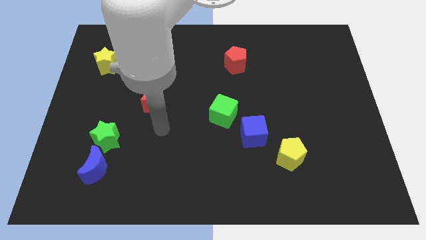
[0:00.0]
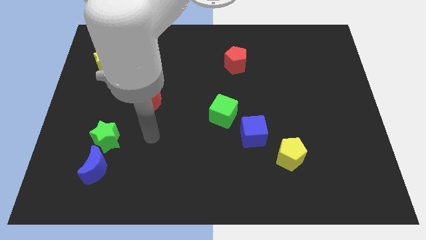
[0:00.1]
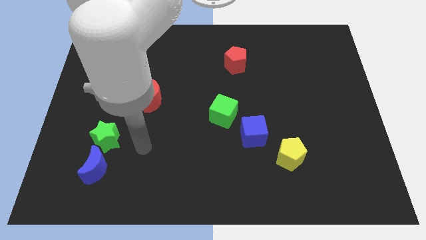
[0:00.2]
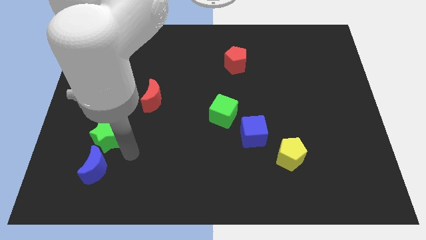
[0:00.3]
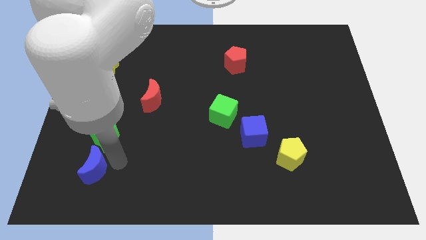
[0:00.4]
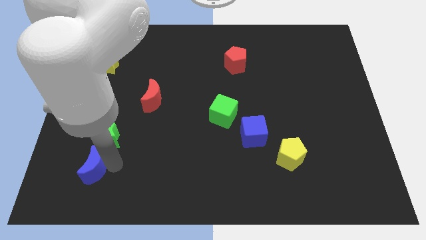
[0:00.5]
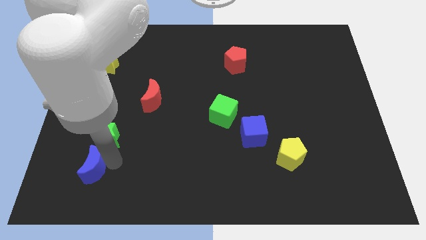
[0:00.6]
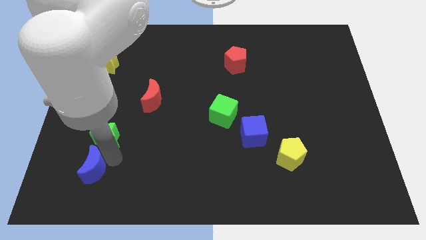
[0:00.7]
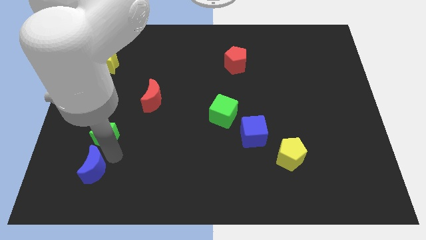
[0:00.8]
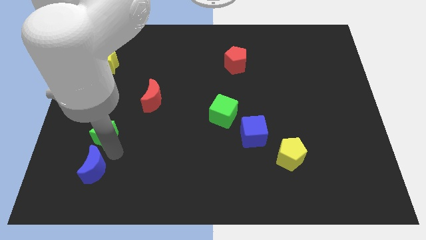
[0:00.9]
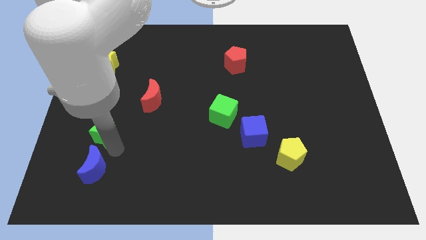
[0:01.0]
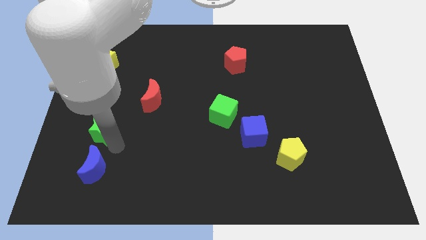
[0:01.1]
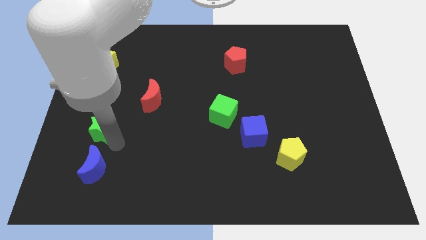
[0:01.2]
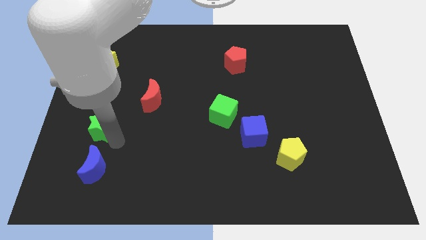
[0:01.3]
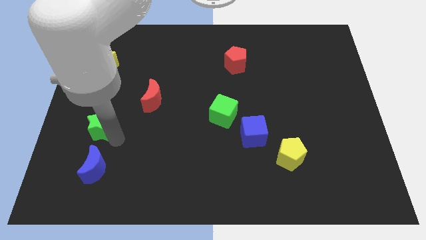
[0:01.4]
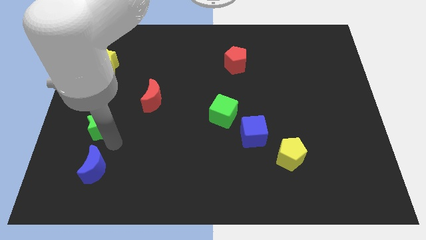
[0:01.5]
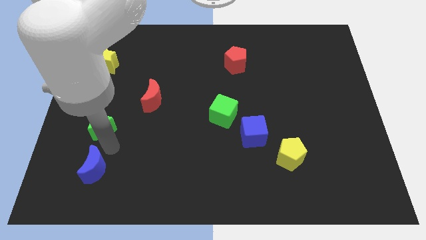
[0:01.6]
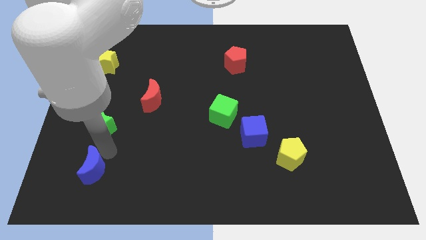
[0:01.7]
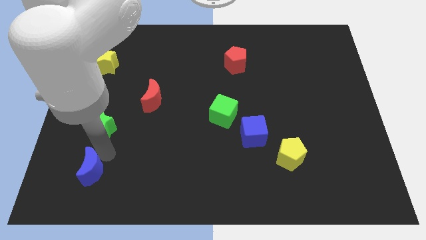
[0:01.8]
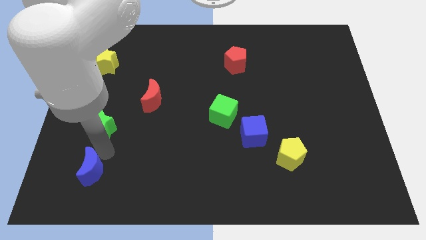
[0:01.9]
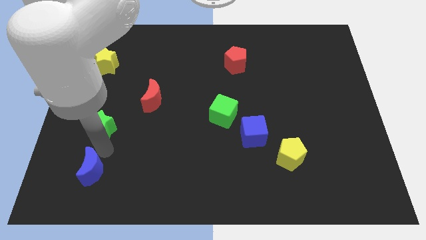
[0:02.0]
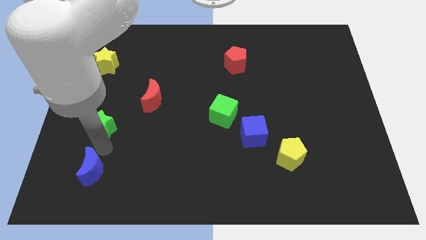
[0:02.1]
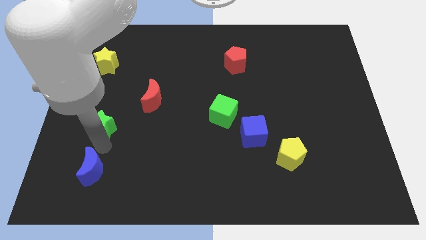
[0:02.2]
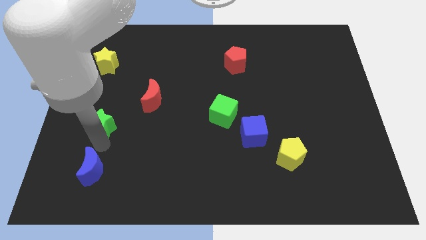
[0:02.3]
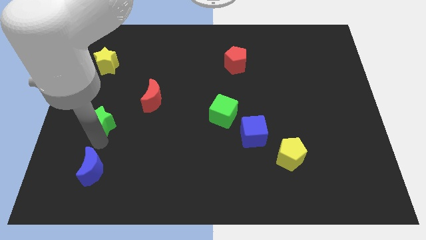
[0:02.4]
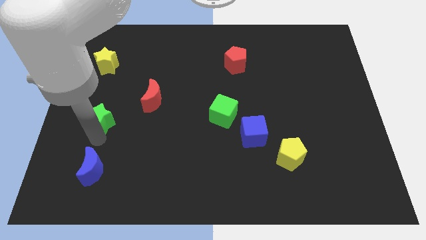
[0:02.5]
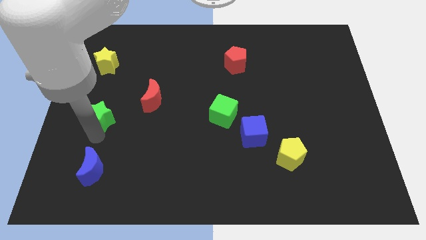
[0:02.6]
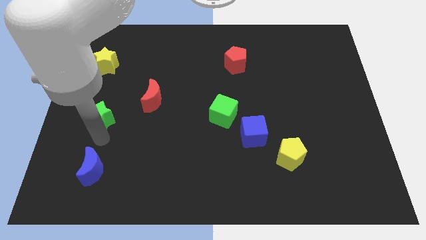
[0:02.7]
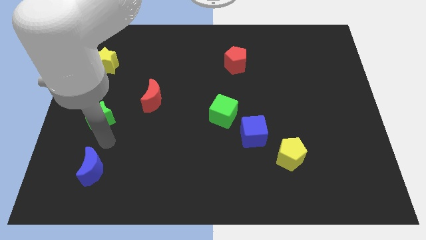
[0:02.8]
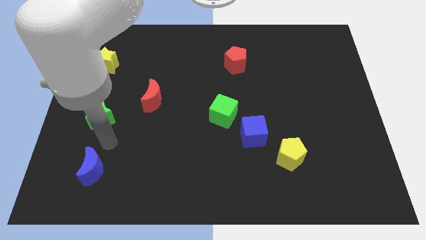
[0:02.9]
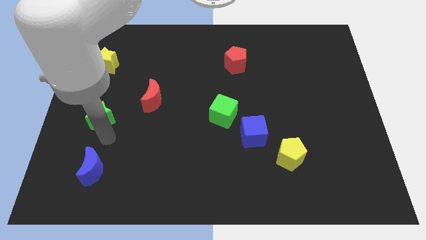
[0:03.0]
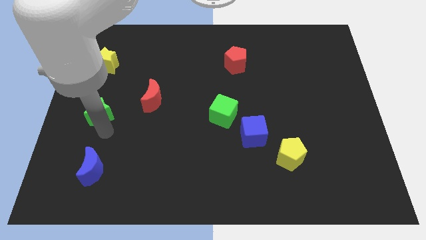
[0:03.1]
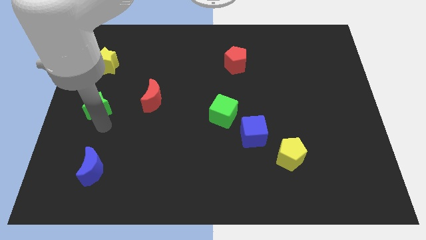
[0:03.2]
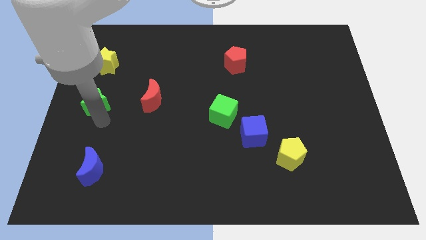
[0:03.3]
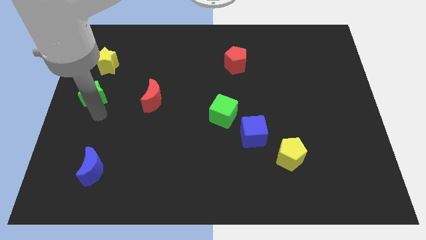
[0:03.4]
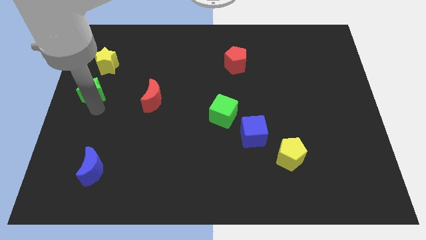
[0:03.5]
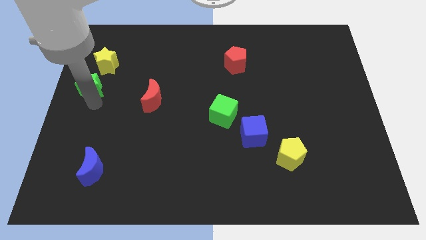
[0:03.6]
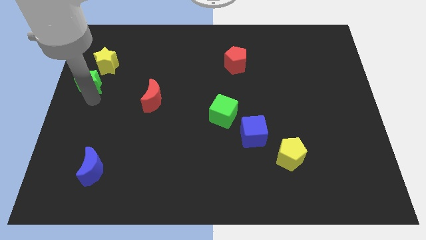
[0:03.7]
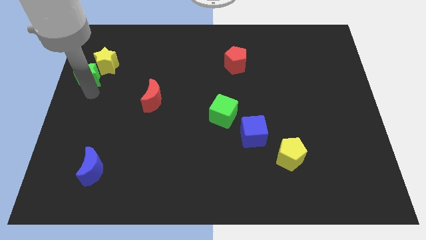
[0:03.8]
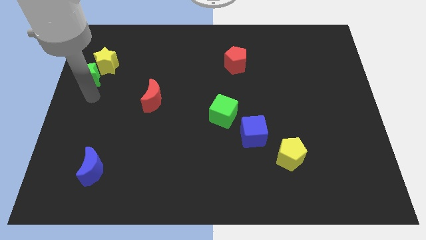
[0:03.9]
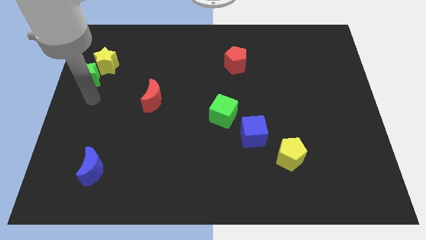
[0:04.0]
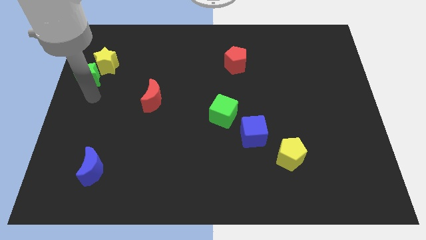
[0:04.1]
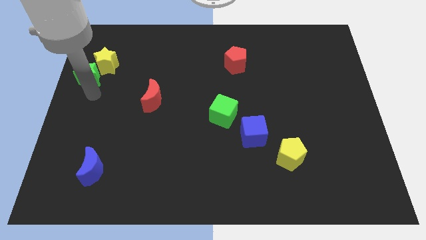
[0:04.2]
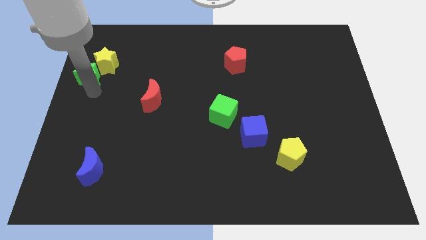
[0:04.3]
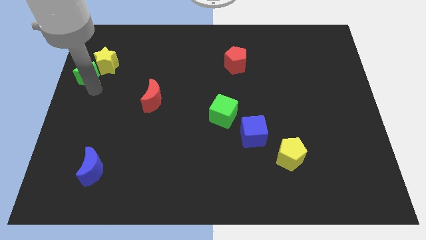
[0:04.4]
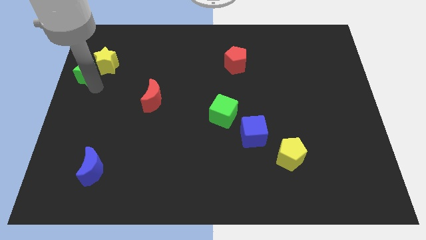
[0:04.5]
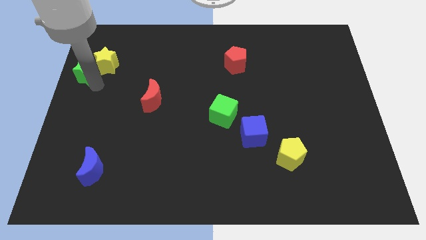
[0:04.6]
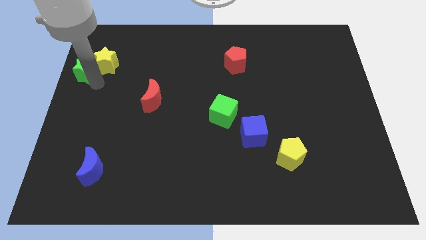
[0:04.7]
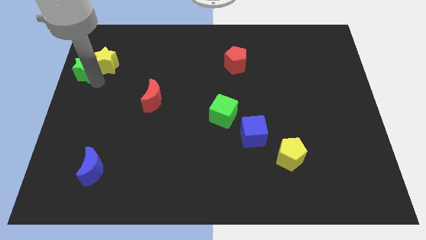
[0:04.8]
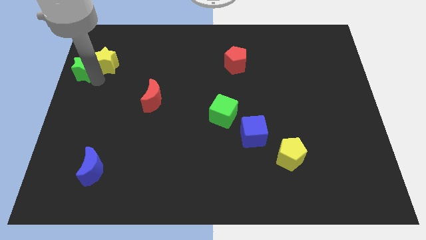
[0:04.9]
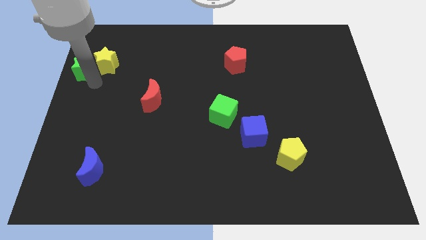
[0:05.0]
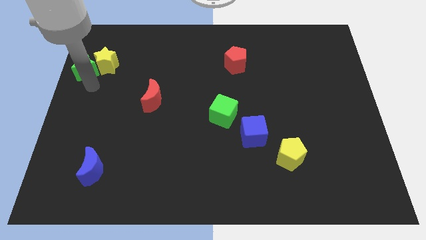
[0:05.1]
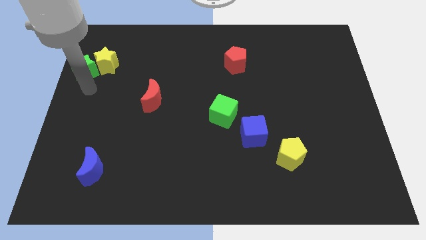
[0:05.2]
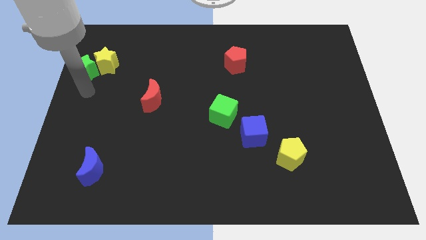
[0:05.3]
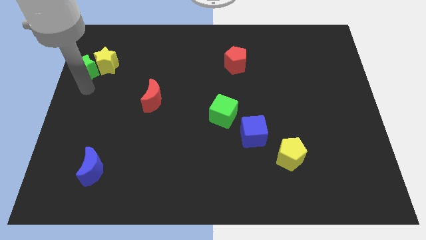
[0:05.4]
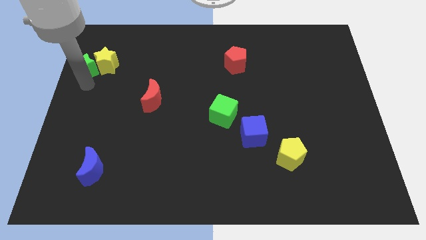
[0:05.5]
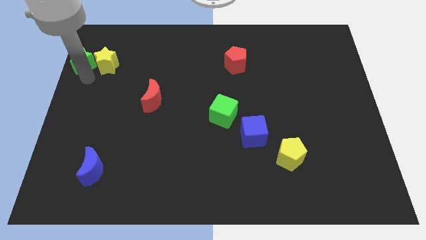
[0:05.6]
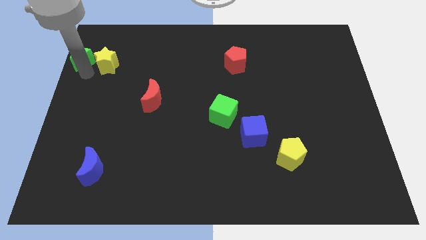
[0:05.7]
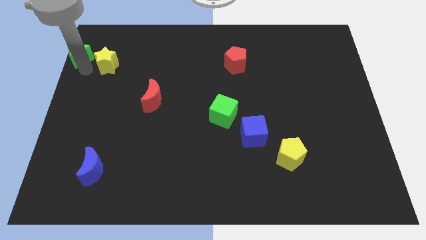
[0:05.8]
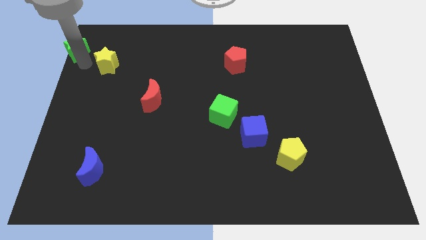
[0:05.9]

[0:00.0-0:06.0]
push the green star to the top left

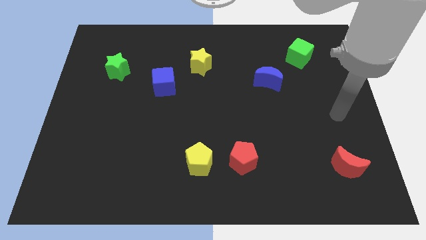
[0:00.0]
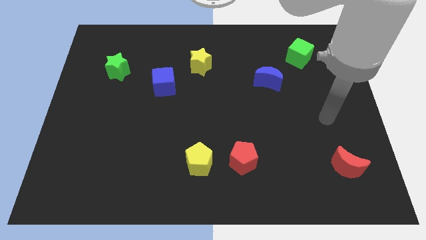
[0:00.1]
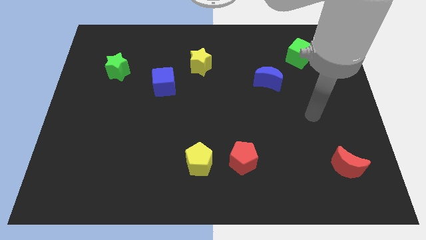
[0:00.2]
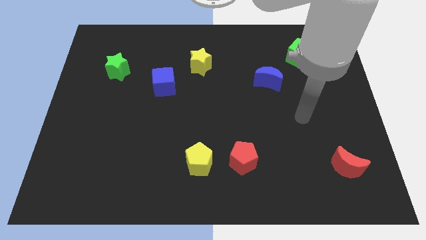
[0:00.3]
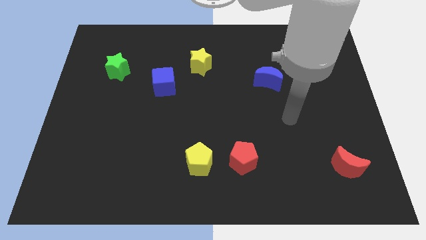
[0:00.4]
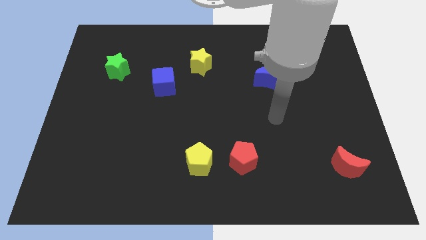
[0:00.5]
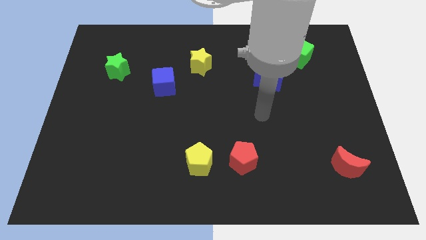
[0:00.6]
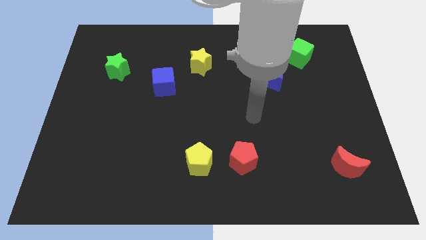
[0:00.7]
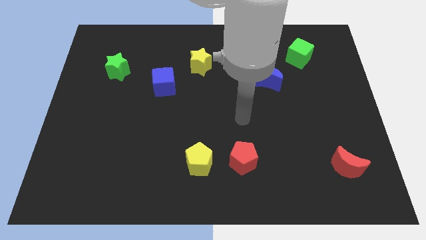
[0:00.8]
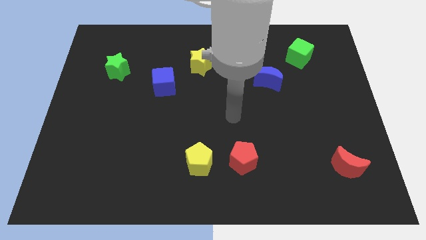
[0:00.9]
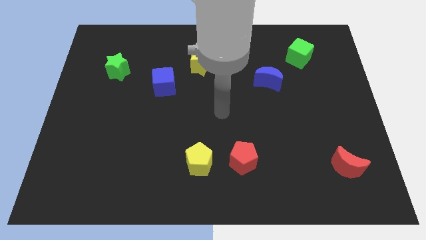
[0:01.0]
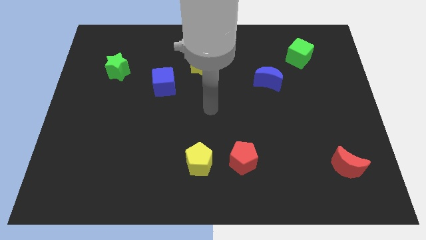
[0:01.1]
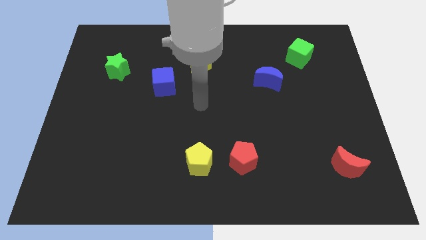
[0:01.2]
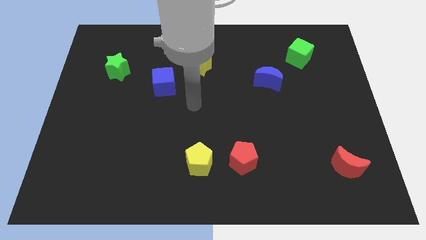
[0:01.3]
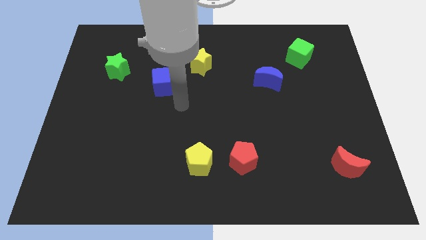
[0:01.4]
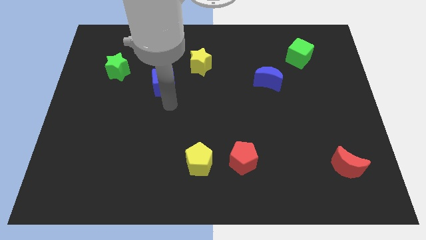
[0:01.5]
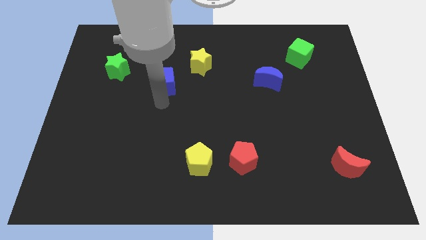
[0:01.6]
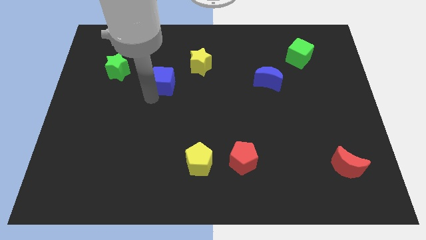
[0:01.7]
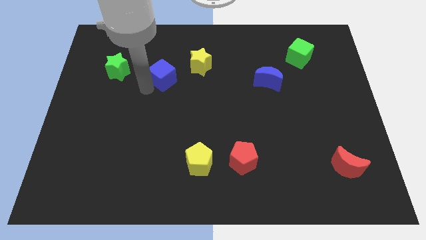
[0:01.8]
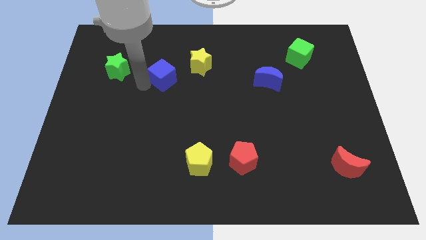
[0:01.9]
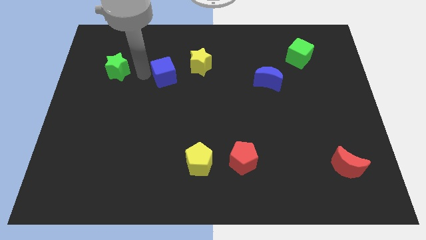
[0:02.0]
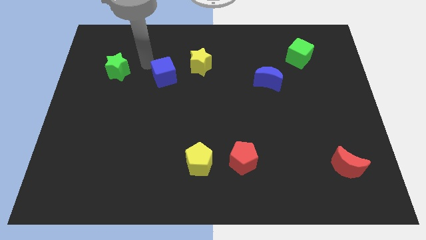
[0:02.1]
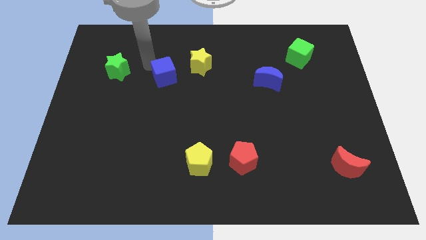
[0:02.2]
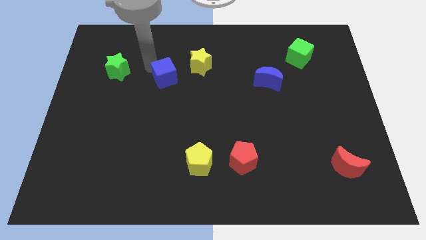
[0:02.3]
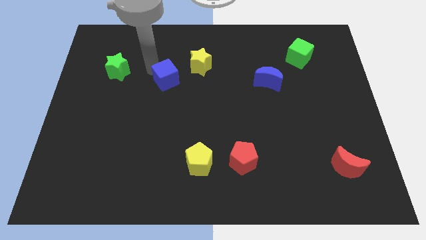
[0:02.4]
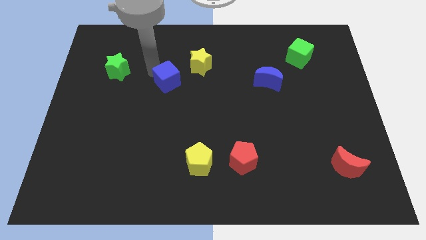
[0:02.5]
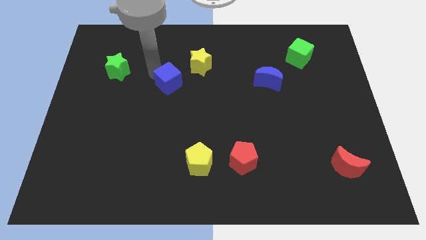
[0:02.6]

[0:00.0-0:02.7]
put the blue cube to the center
